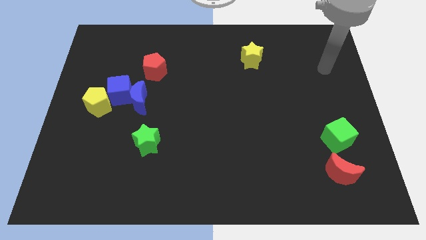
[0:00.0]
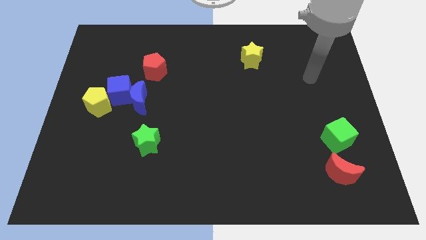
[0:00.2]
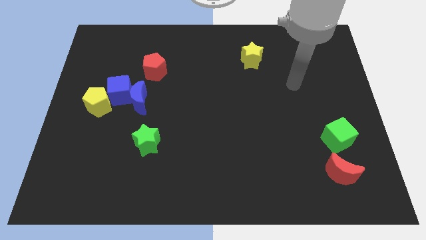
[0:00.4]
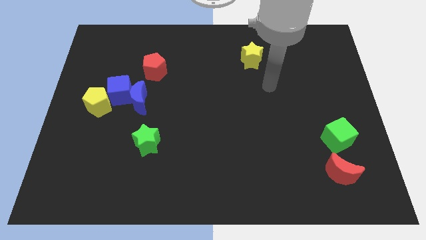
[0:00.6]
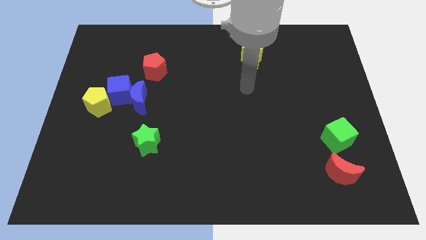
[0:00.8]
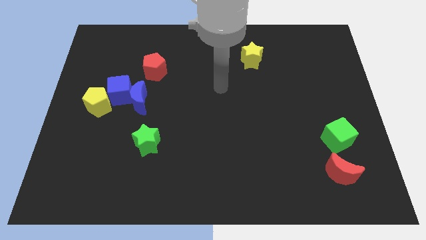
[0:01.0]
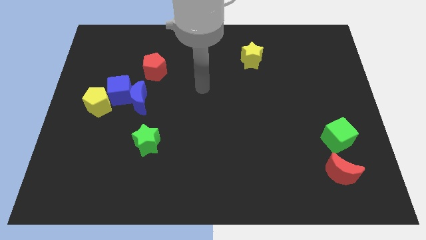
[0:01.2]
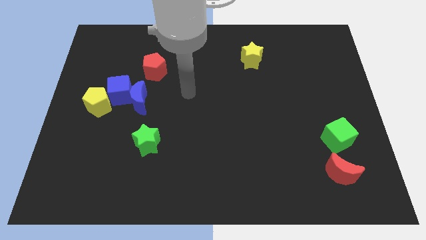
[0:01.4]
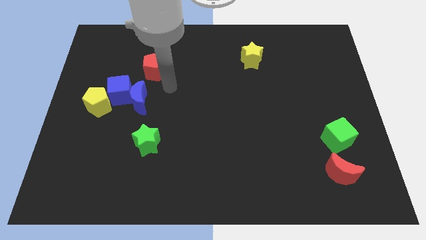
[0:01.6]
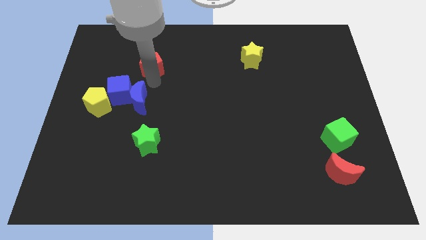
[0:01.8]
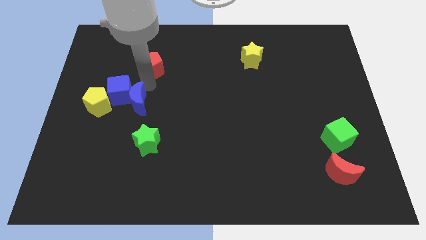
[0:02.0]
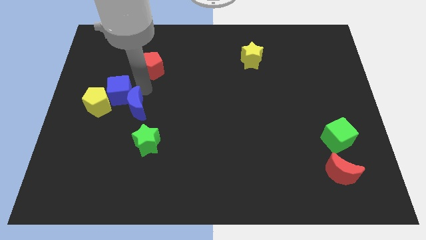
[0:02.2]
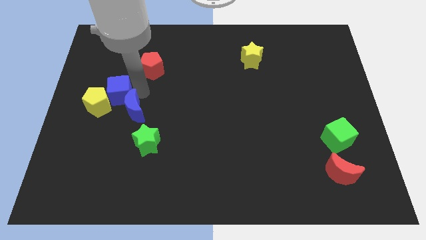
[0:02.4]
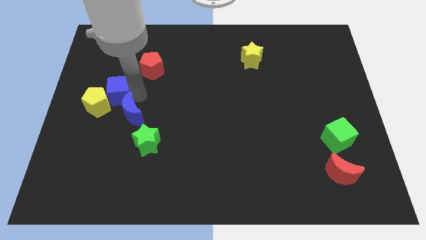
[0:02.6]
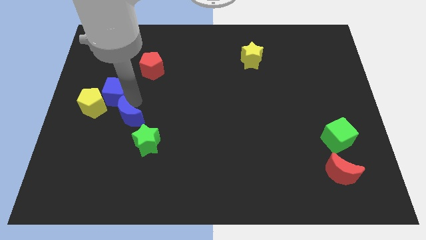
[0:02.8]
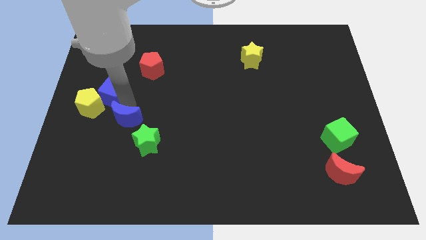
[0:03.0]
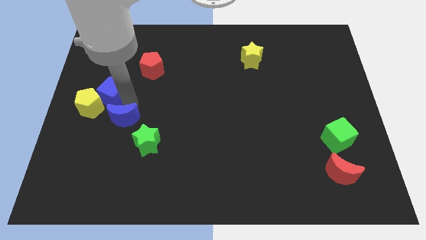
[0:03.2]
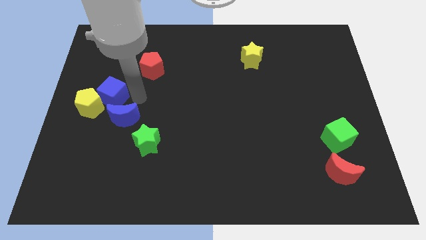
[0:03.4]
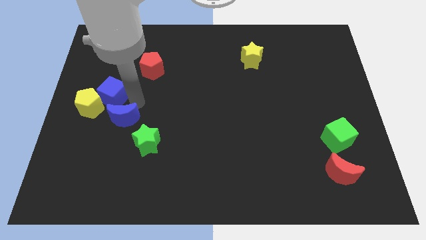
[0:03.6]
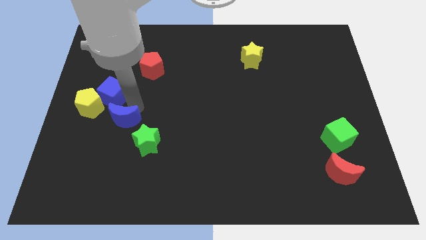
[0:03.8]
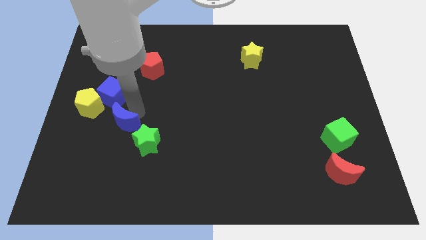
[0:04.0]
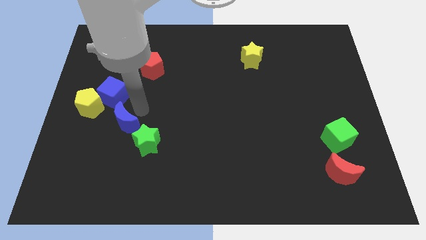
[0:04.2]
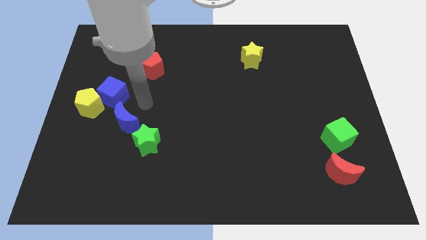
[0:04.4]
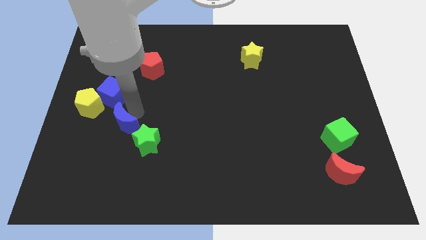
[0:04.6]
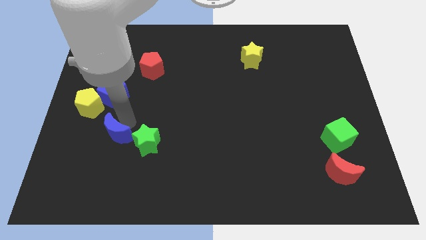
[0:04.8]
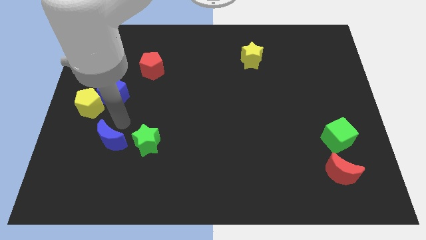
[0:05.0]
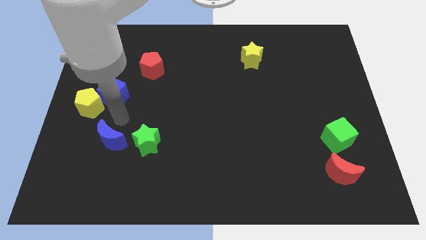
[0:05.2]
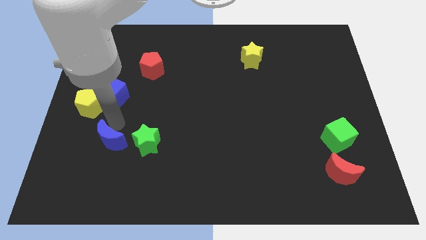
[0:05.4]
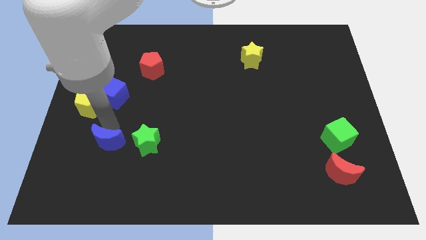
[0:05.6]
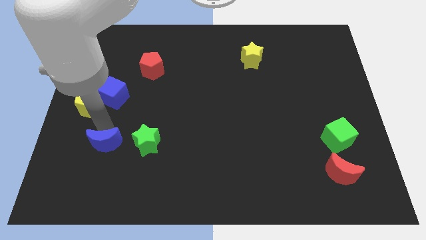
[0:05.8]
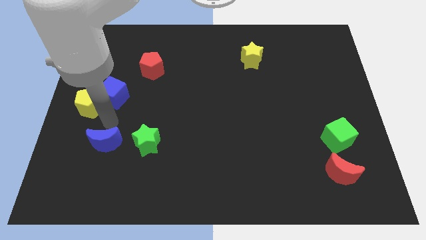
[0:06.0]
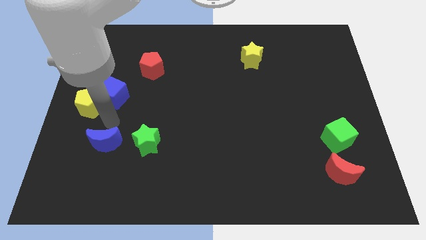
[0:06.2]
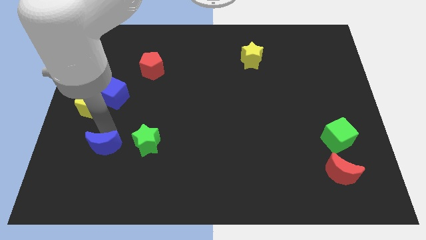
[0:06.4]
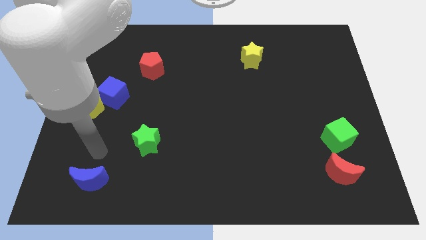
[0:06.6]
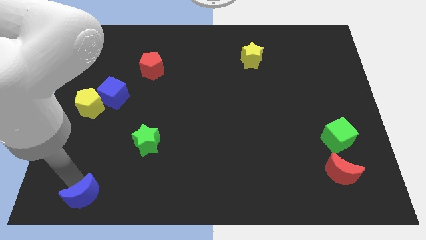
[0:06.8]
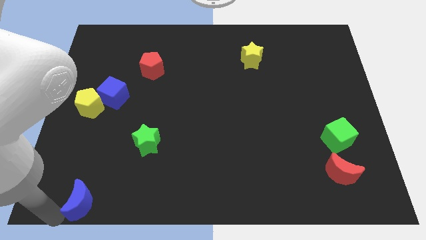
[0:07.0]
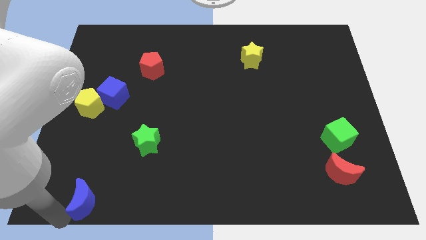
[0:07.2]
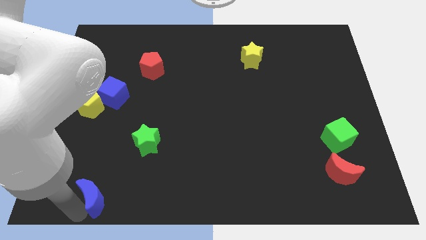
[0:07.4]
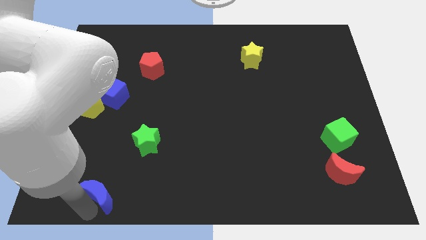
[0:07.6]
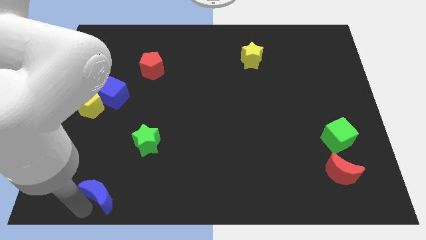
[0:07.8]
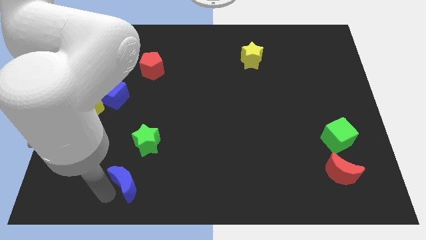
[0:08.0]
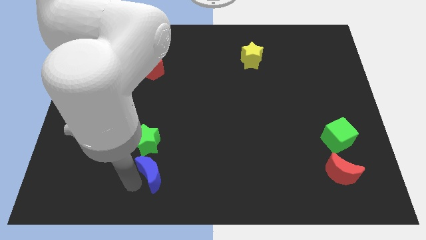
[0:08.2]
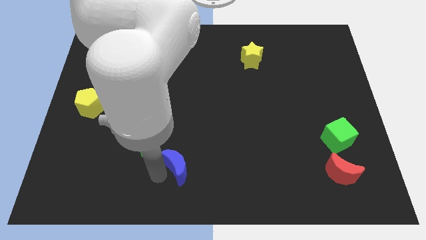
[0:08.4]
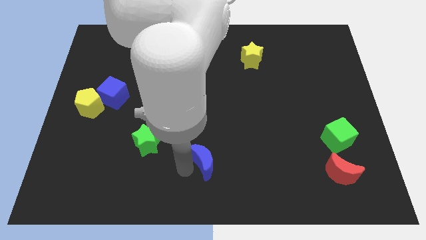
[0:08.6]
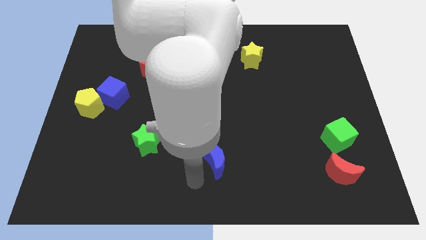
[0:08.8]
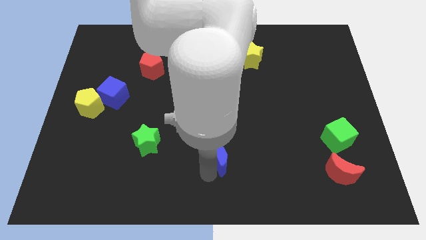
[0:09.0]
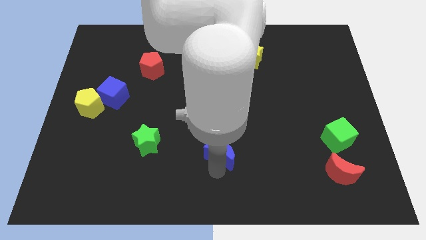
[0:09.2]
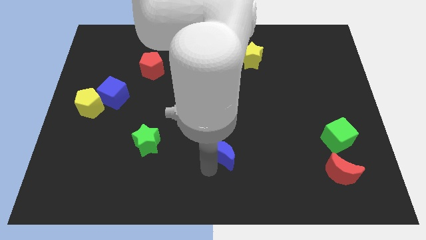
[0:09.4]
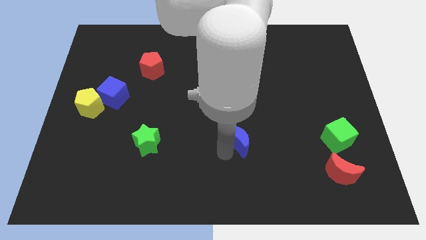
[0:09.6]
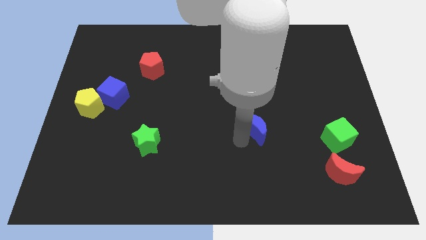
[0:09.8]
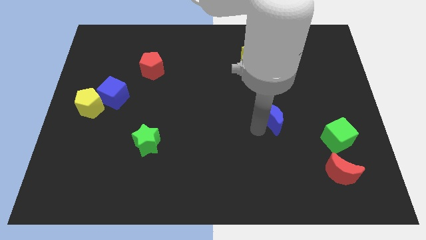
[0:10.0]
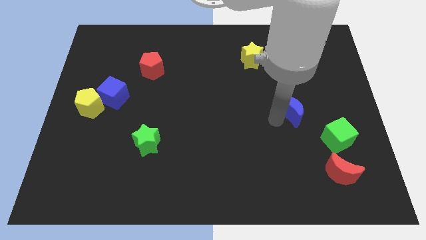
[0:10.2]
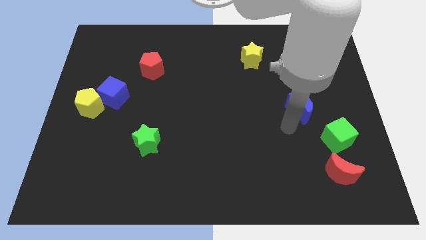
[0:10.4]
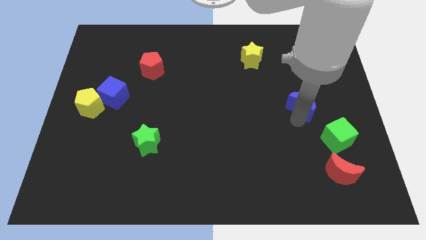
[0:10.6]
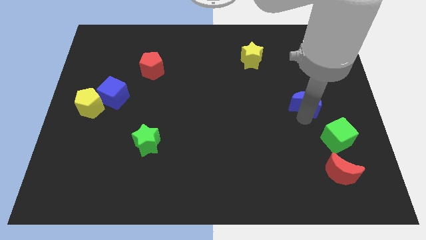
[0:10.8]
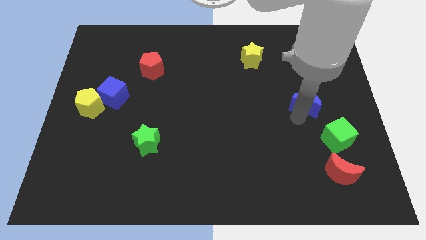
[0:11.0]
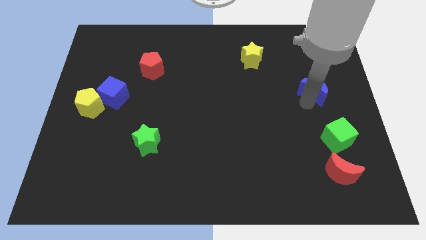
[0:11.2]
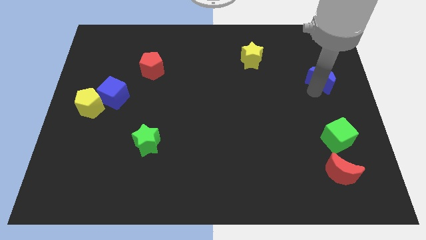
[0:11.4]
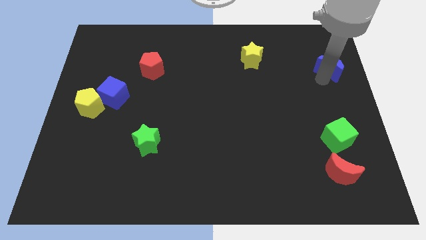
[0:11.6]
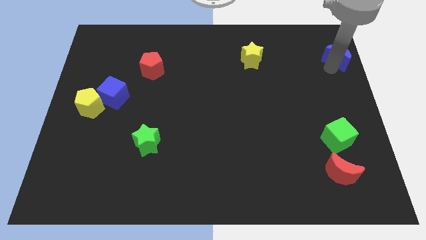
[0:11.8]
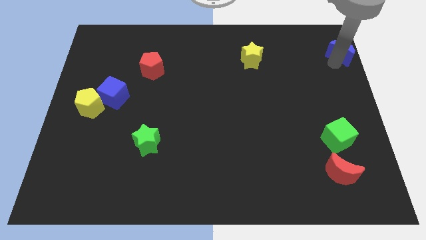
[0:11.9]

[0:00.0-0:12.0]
move the blue moon to the top right of the board
